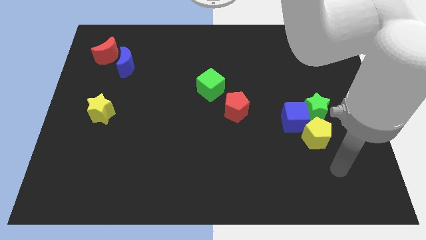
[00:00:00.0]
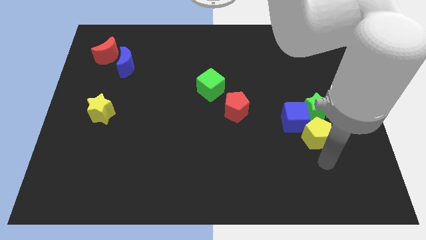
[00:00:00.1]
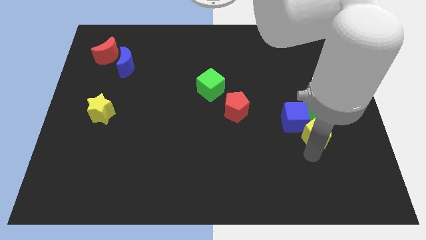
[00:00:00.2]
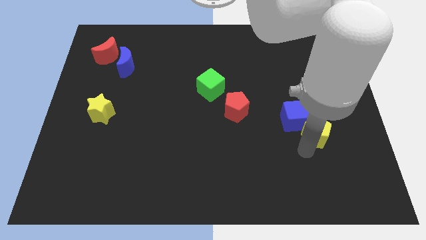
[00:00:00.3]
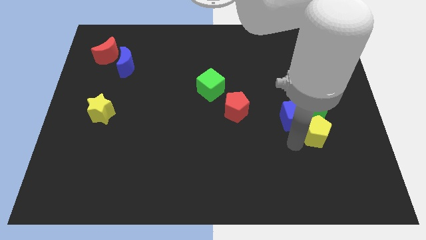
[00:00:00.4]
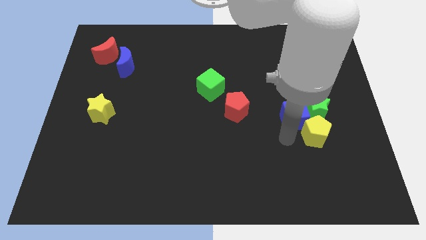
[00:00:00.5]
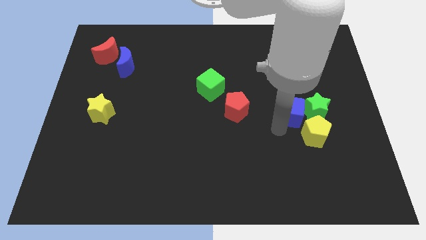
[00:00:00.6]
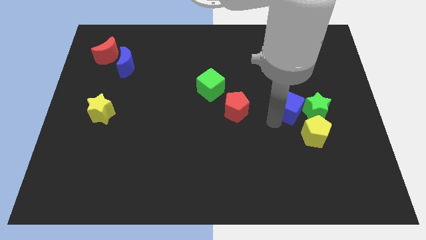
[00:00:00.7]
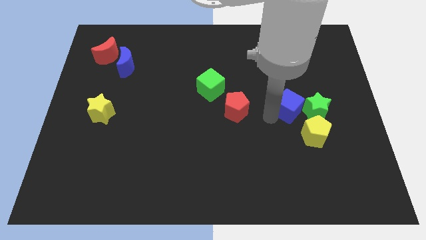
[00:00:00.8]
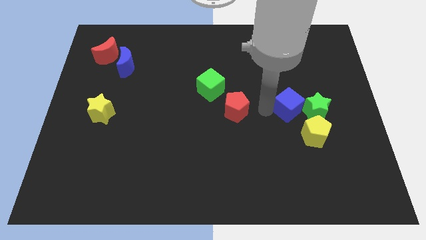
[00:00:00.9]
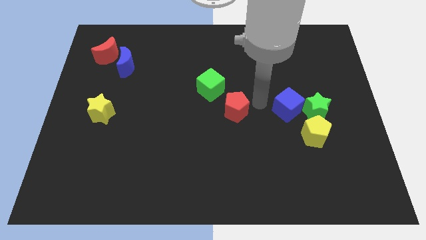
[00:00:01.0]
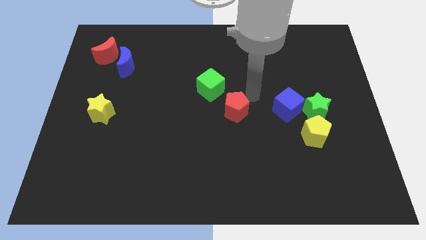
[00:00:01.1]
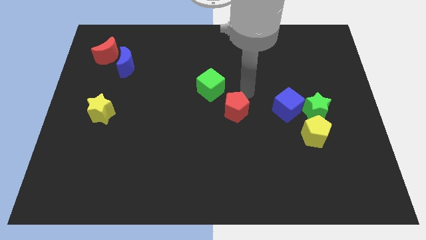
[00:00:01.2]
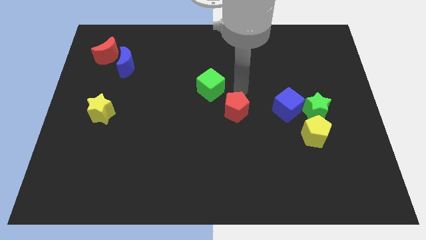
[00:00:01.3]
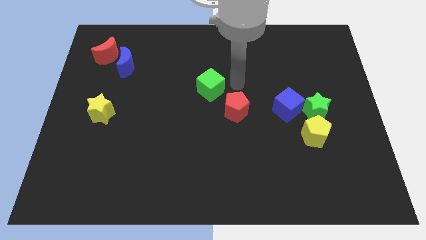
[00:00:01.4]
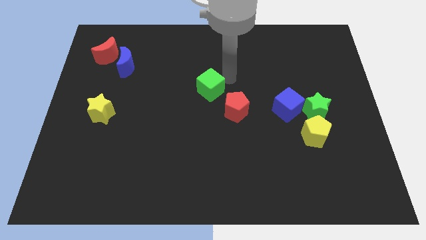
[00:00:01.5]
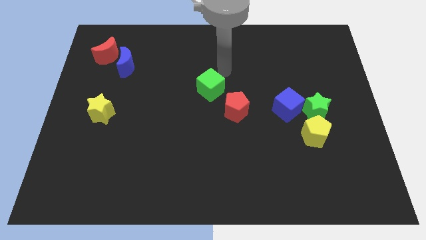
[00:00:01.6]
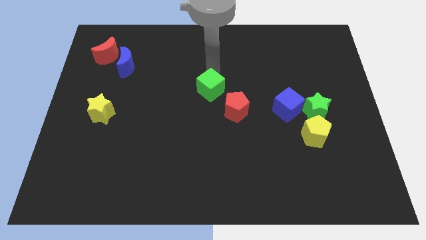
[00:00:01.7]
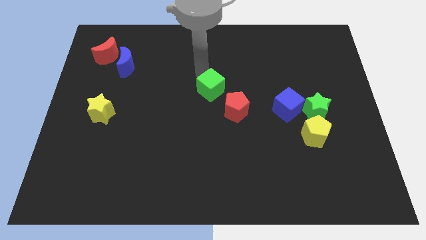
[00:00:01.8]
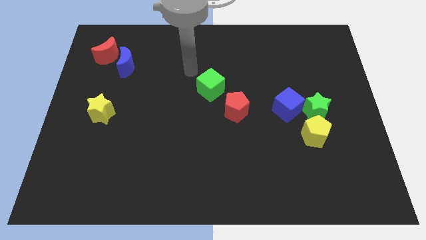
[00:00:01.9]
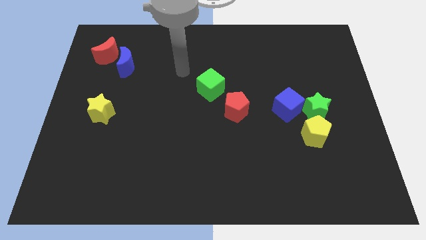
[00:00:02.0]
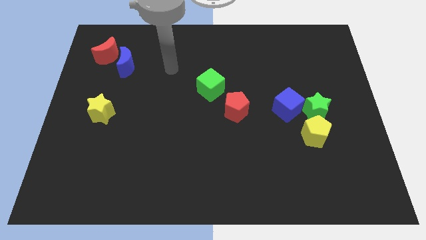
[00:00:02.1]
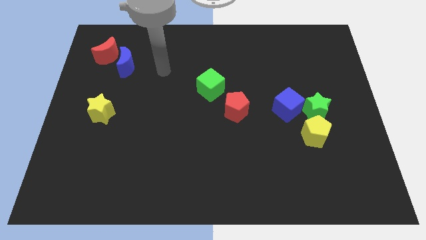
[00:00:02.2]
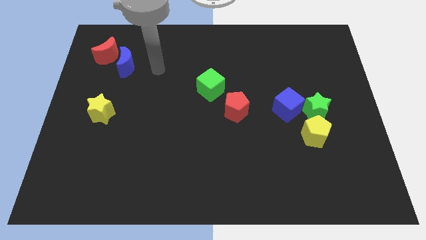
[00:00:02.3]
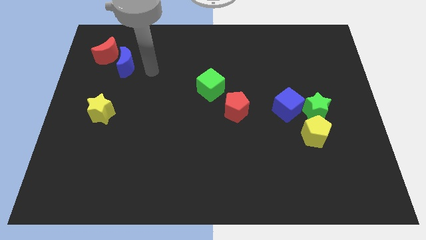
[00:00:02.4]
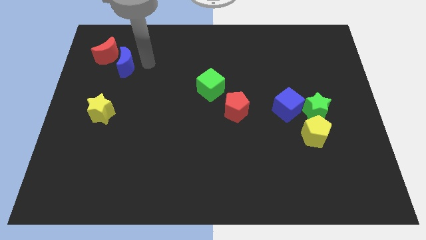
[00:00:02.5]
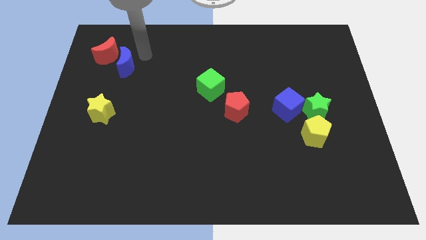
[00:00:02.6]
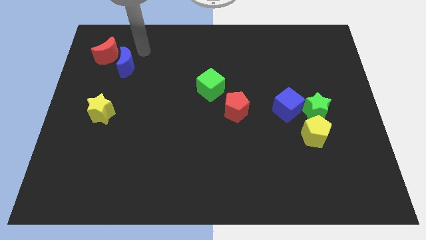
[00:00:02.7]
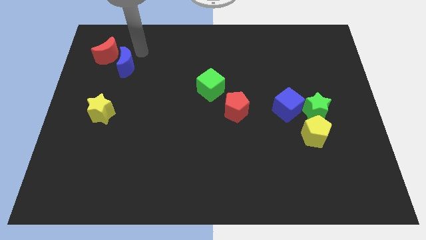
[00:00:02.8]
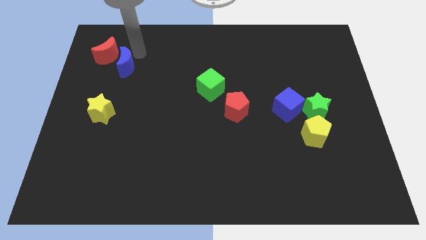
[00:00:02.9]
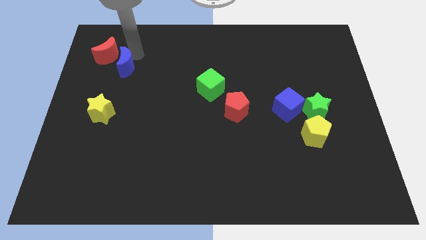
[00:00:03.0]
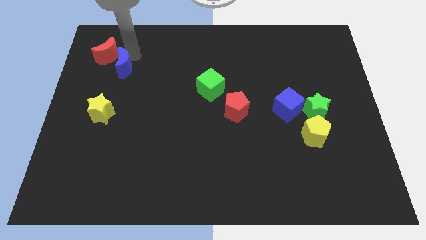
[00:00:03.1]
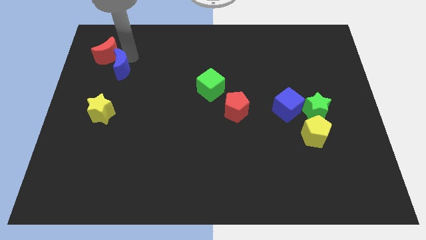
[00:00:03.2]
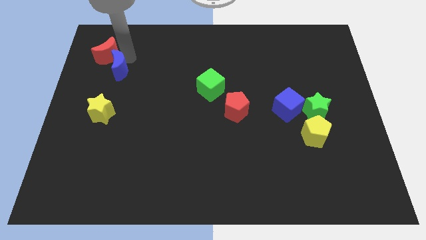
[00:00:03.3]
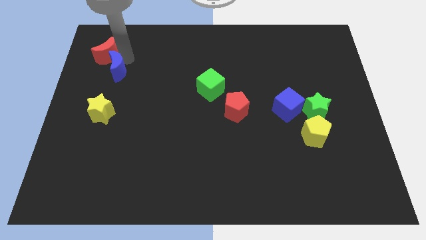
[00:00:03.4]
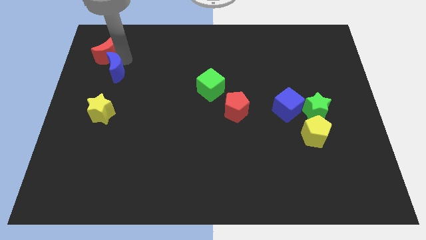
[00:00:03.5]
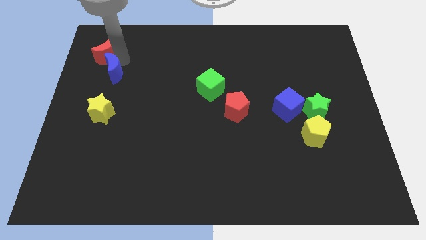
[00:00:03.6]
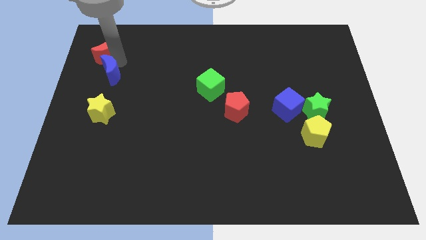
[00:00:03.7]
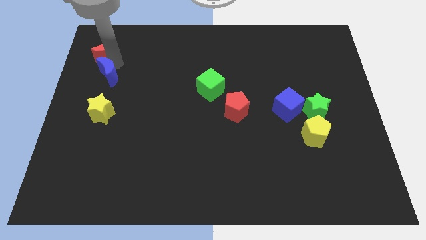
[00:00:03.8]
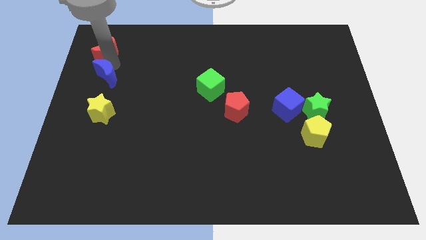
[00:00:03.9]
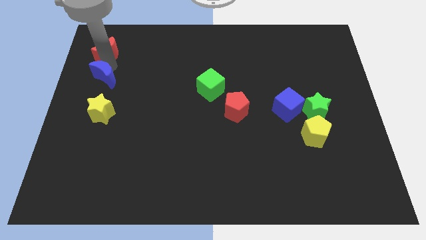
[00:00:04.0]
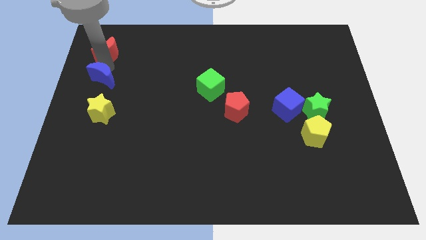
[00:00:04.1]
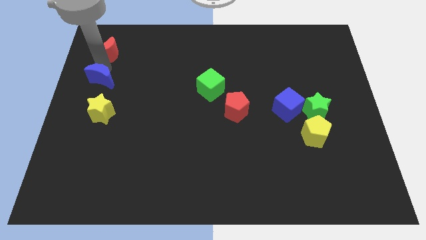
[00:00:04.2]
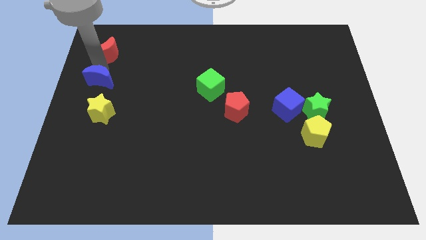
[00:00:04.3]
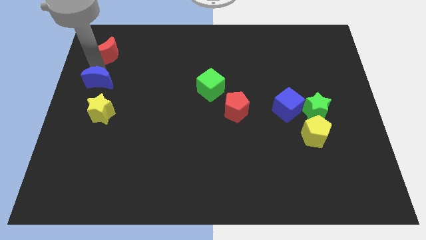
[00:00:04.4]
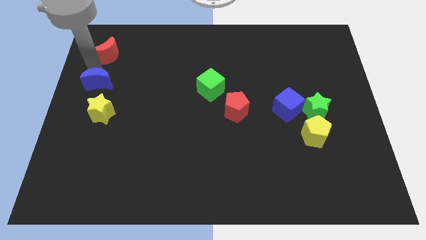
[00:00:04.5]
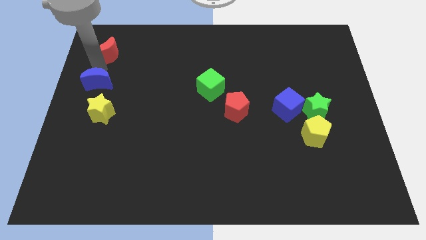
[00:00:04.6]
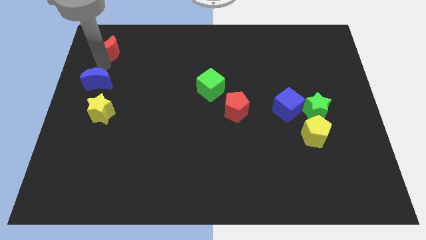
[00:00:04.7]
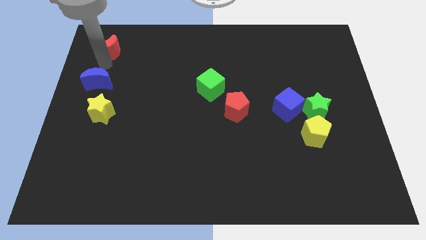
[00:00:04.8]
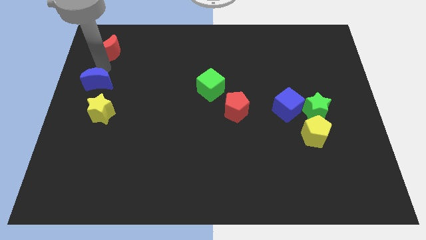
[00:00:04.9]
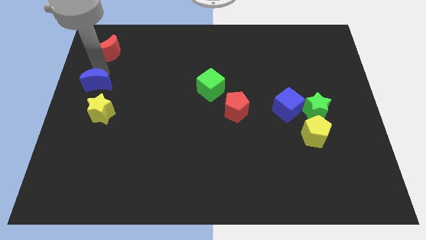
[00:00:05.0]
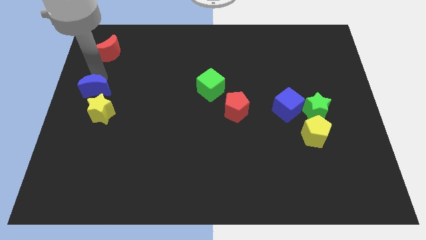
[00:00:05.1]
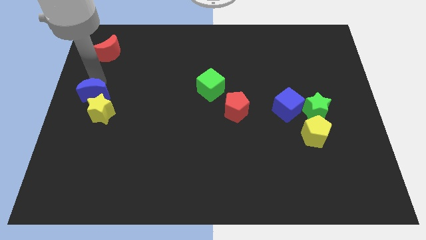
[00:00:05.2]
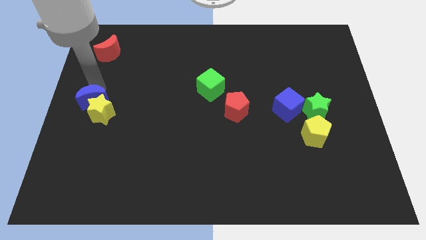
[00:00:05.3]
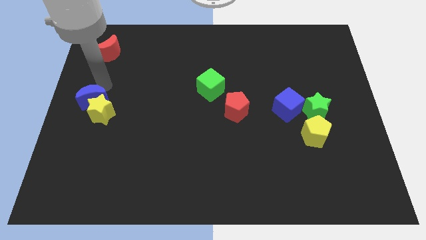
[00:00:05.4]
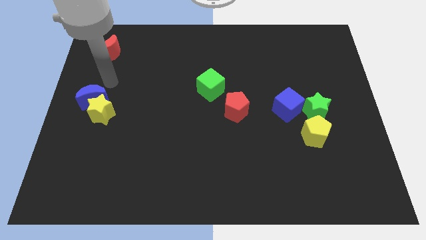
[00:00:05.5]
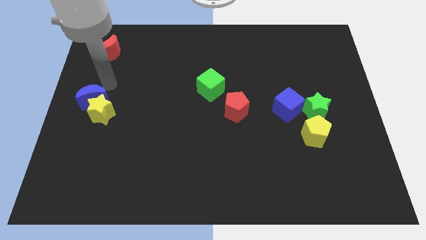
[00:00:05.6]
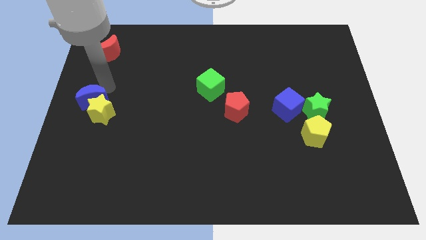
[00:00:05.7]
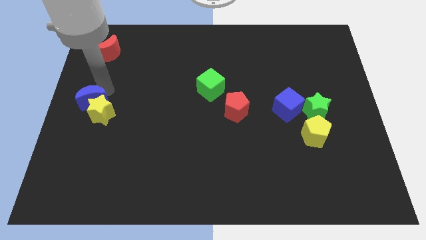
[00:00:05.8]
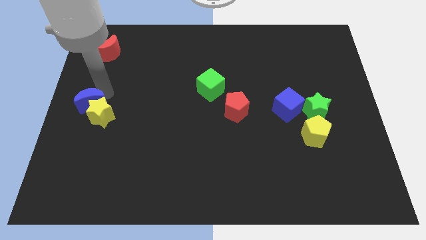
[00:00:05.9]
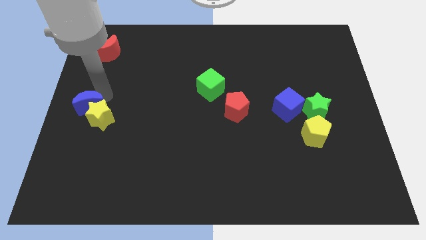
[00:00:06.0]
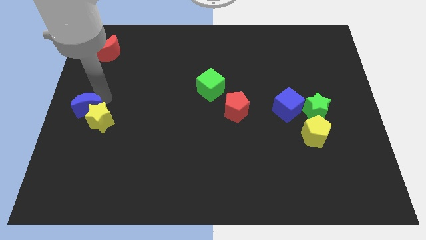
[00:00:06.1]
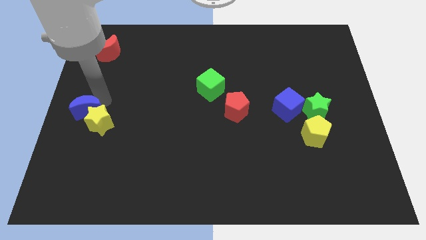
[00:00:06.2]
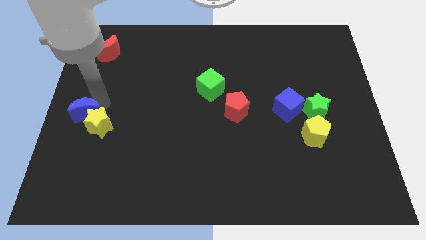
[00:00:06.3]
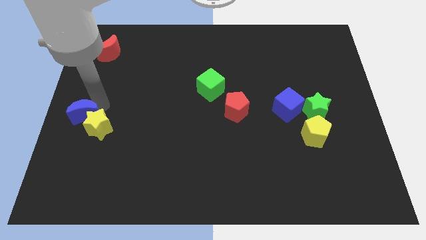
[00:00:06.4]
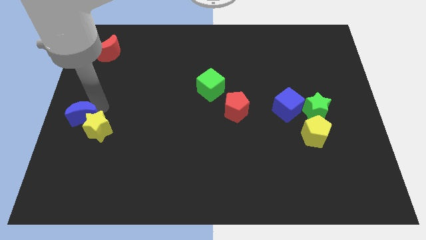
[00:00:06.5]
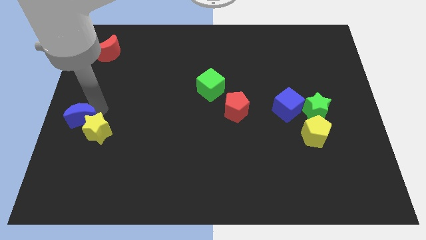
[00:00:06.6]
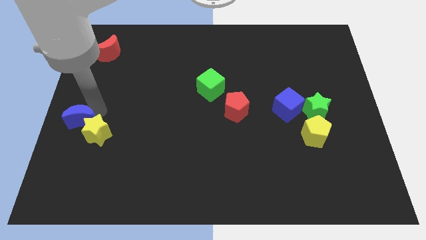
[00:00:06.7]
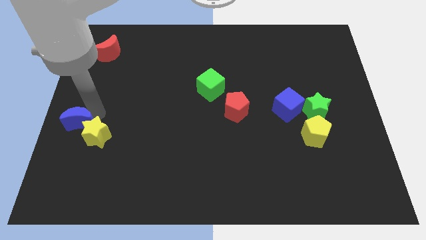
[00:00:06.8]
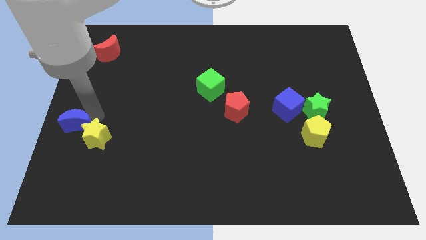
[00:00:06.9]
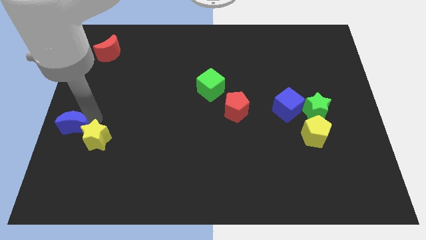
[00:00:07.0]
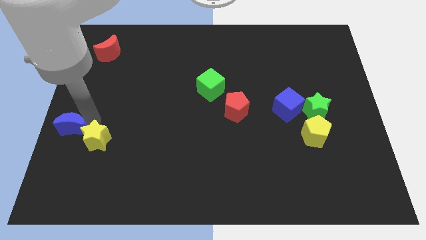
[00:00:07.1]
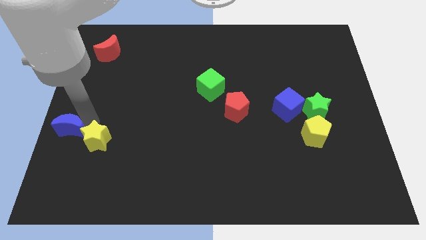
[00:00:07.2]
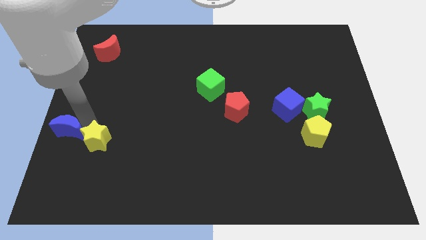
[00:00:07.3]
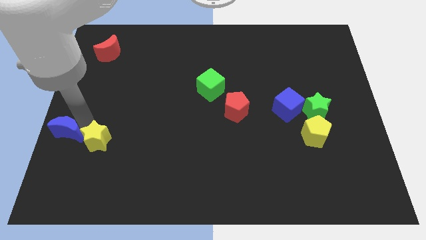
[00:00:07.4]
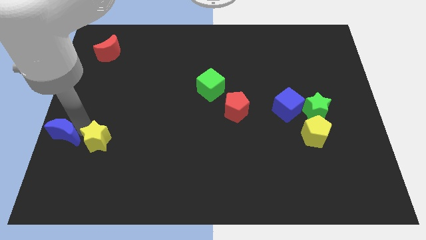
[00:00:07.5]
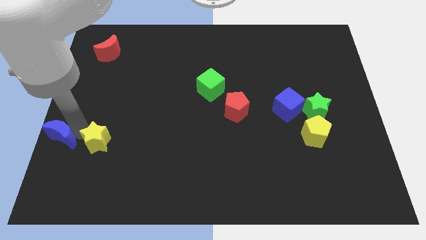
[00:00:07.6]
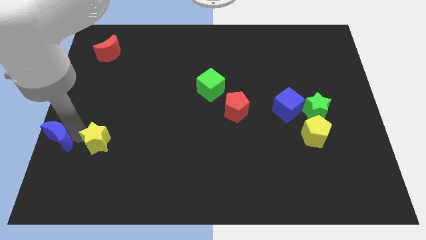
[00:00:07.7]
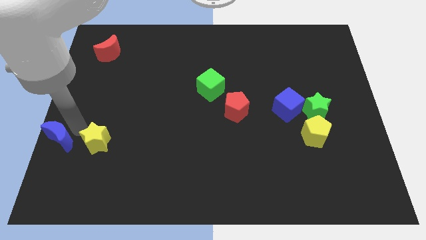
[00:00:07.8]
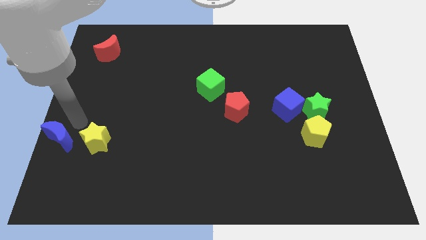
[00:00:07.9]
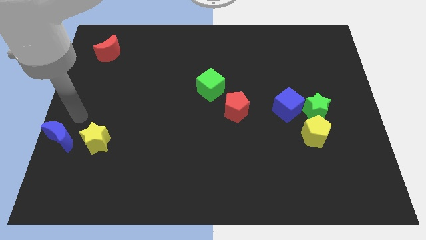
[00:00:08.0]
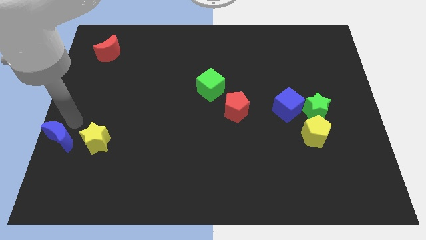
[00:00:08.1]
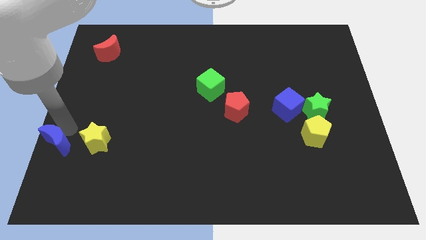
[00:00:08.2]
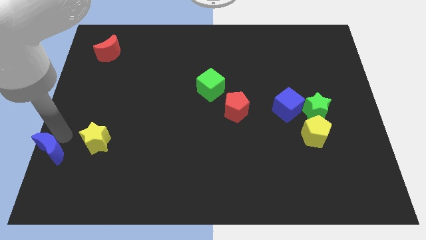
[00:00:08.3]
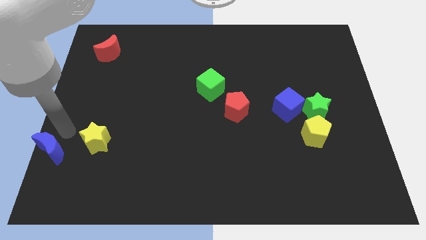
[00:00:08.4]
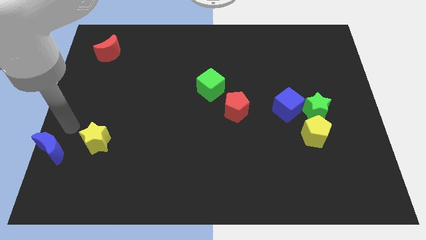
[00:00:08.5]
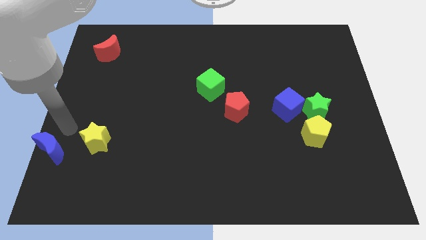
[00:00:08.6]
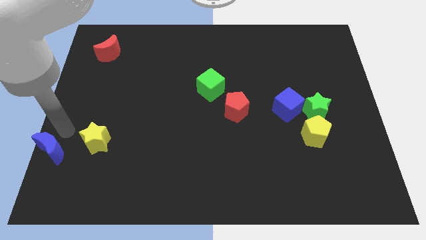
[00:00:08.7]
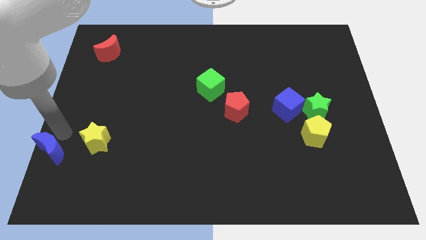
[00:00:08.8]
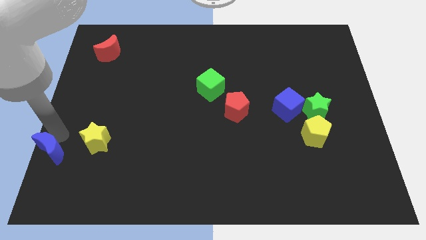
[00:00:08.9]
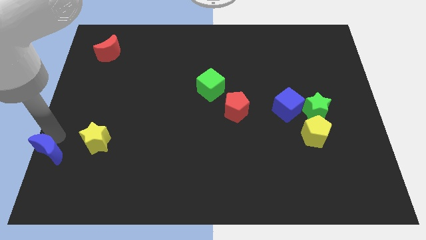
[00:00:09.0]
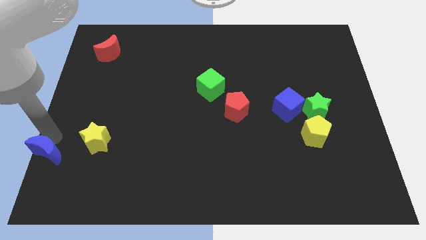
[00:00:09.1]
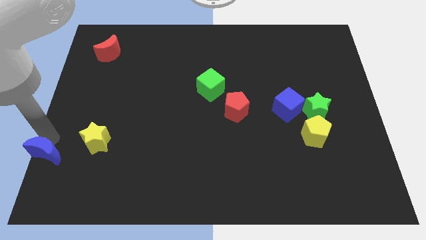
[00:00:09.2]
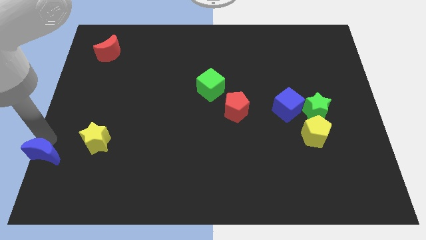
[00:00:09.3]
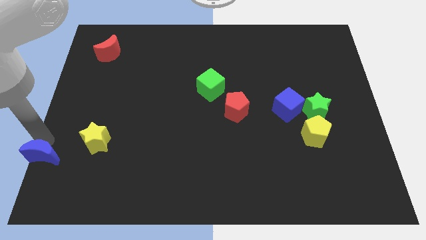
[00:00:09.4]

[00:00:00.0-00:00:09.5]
slide the blue moon to the bottom left corner
